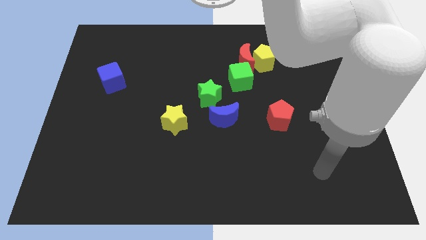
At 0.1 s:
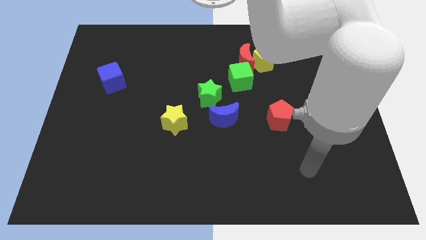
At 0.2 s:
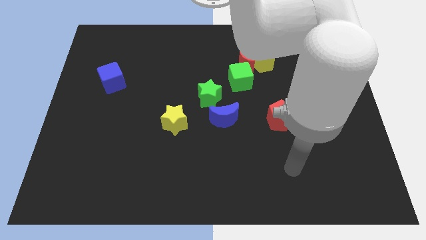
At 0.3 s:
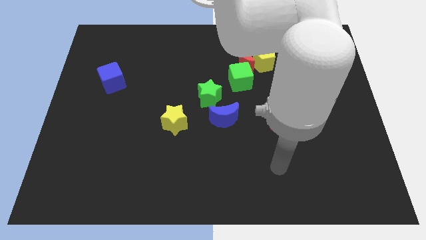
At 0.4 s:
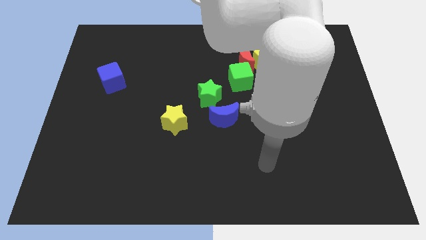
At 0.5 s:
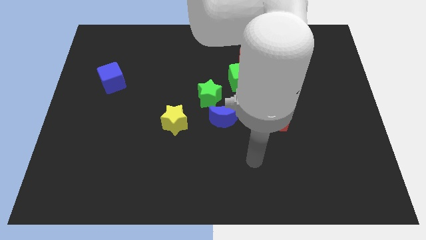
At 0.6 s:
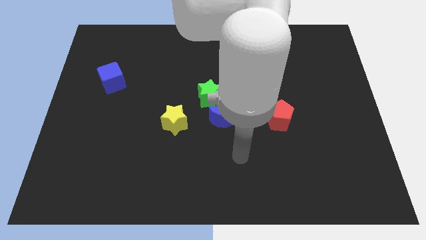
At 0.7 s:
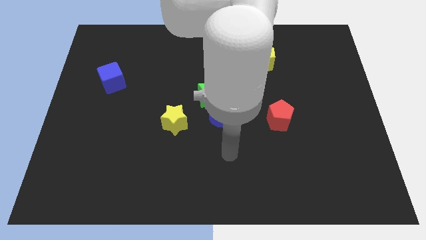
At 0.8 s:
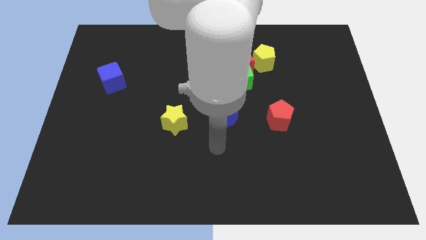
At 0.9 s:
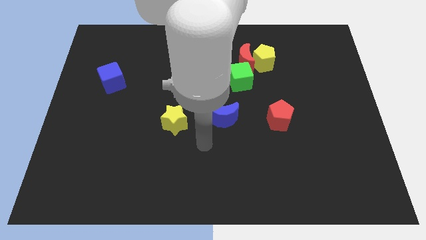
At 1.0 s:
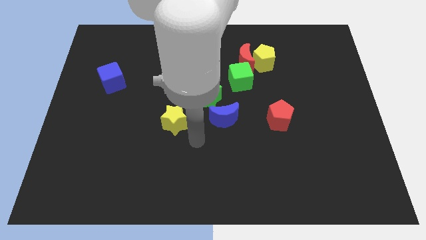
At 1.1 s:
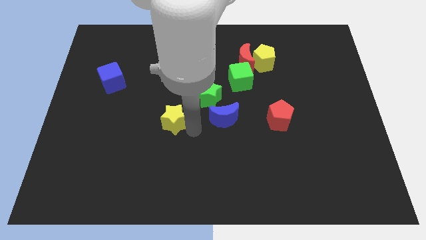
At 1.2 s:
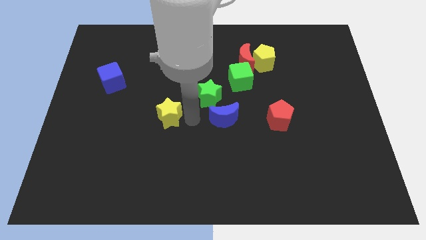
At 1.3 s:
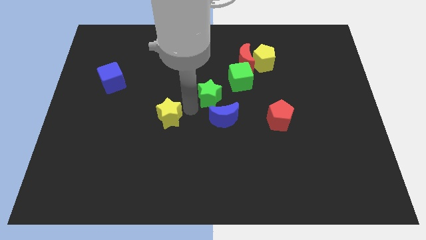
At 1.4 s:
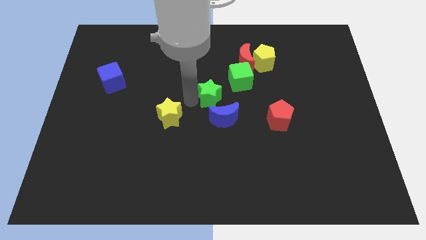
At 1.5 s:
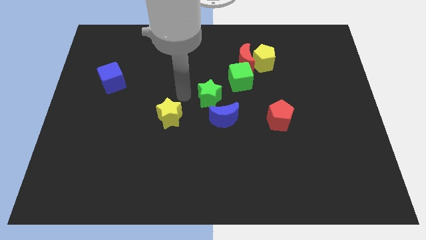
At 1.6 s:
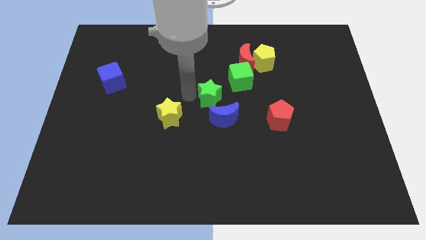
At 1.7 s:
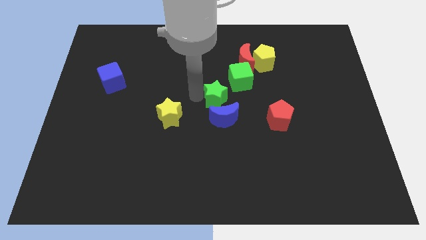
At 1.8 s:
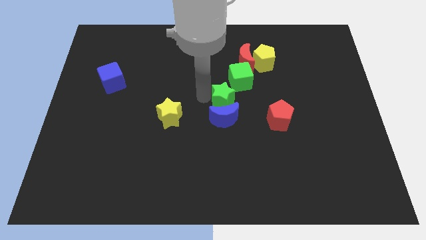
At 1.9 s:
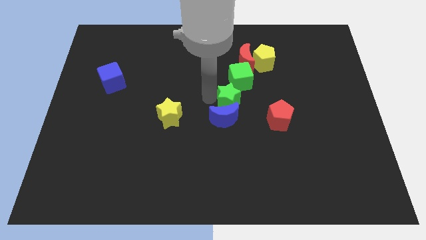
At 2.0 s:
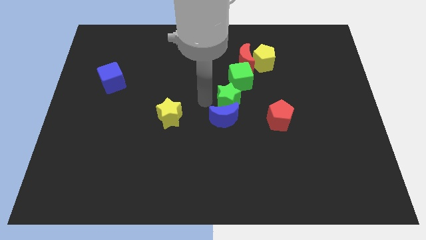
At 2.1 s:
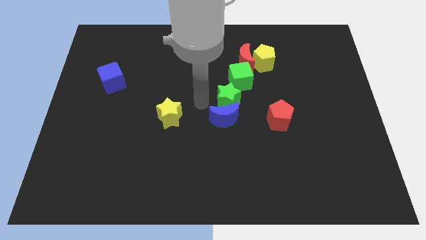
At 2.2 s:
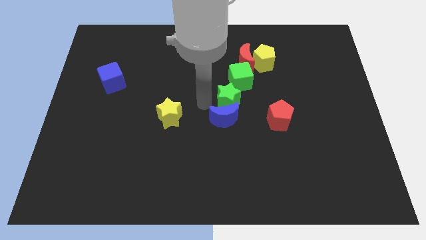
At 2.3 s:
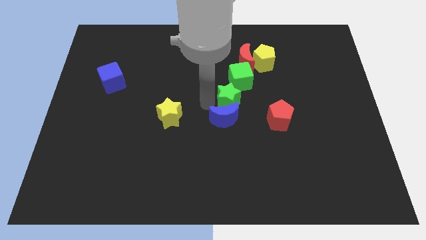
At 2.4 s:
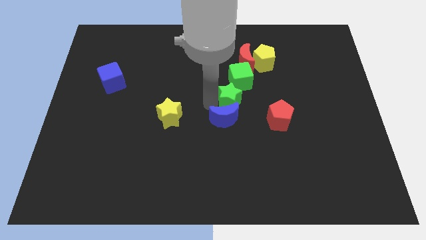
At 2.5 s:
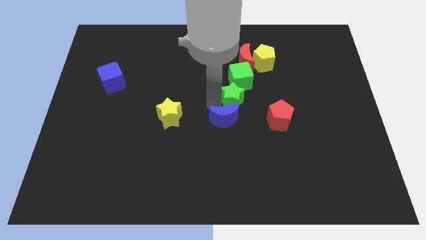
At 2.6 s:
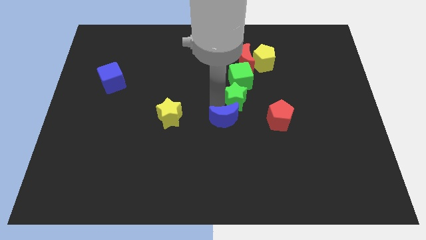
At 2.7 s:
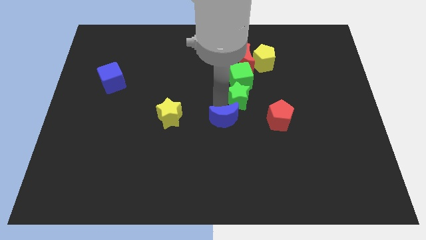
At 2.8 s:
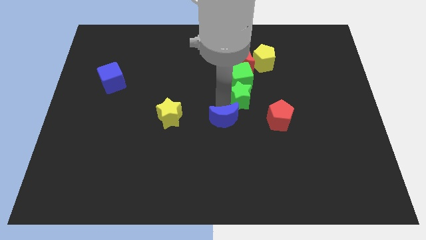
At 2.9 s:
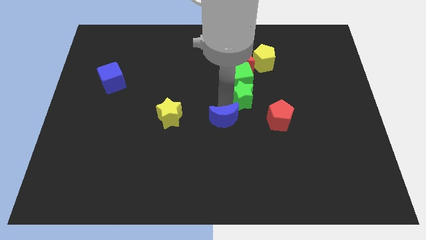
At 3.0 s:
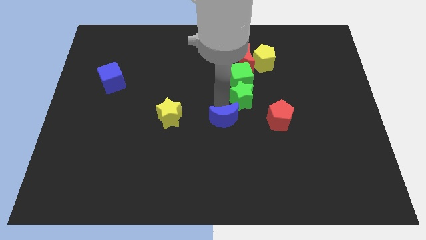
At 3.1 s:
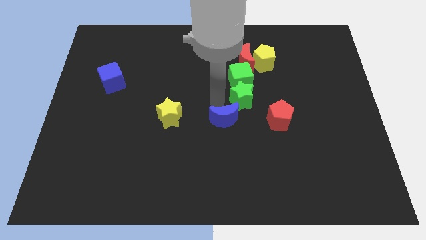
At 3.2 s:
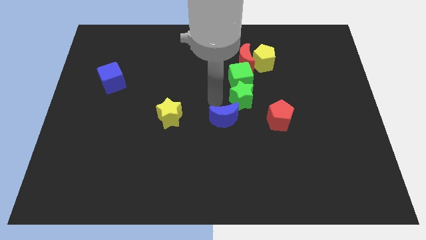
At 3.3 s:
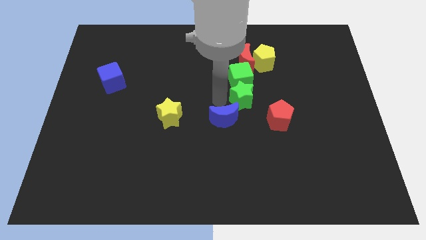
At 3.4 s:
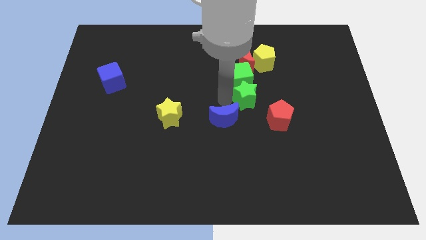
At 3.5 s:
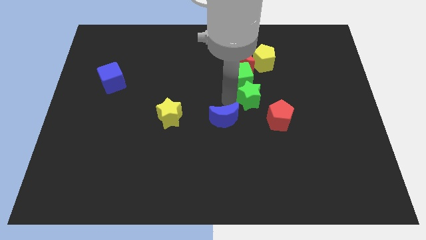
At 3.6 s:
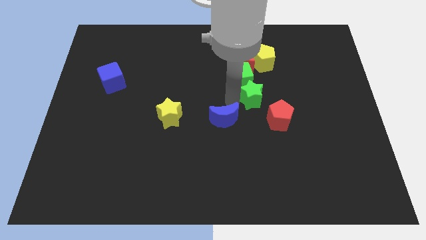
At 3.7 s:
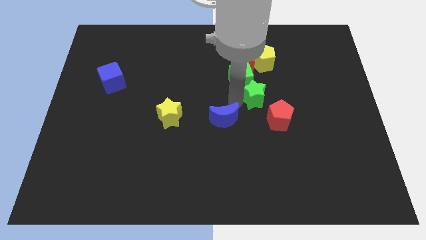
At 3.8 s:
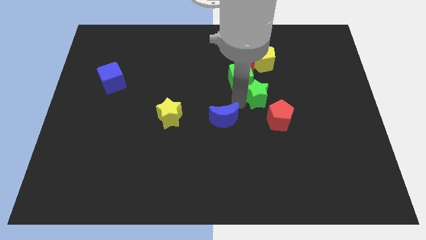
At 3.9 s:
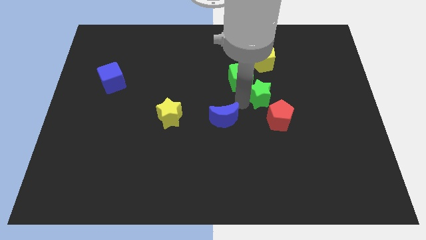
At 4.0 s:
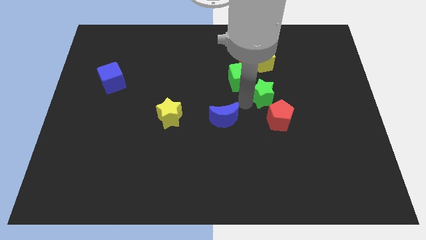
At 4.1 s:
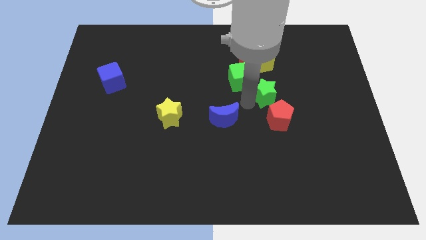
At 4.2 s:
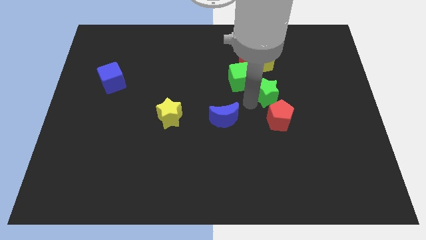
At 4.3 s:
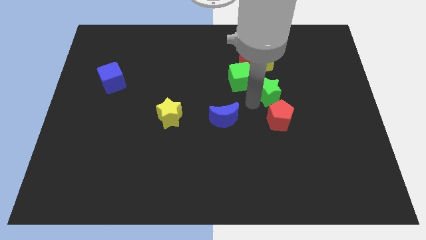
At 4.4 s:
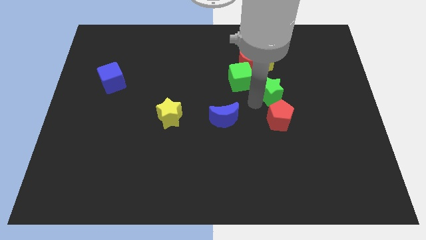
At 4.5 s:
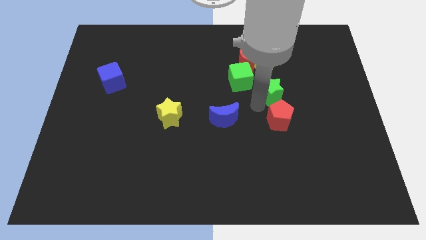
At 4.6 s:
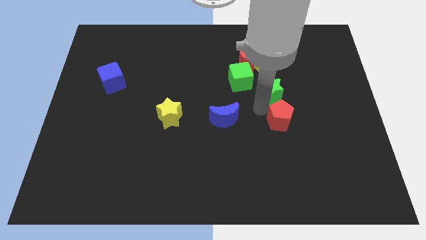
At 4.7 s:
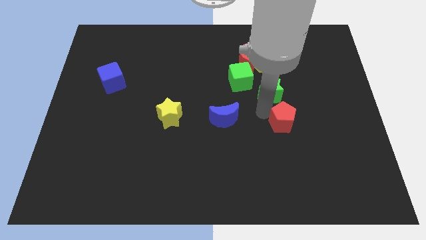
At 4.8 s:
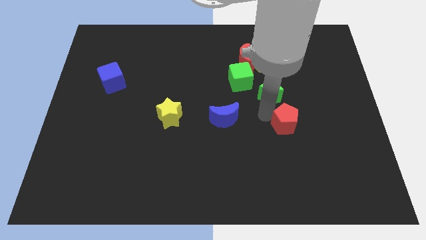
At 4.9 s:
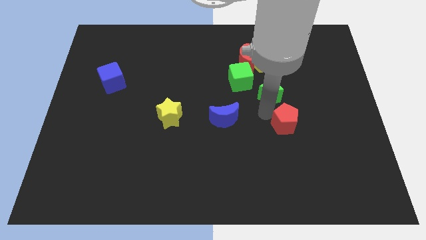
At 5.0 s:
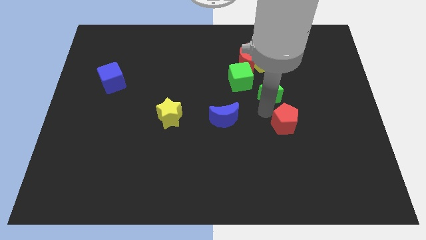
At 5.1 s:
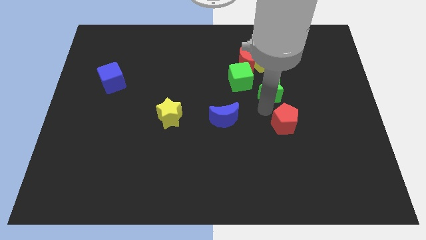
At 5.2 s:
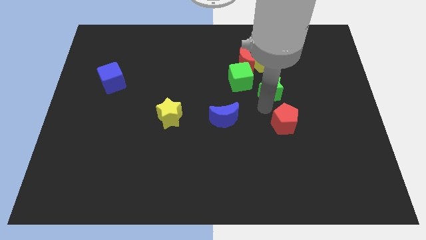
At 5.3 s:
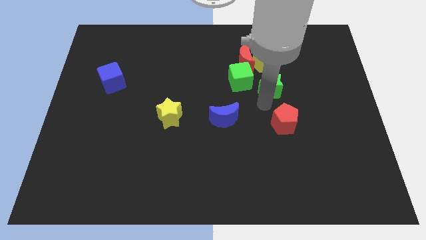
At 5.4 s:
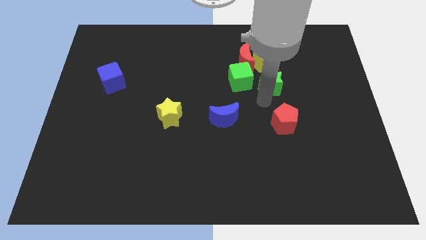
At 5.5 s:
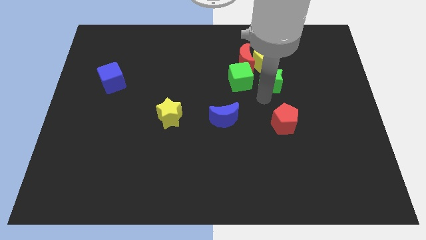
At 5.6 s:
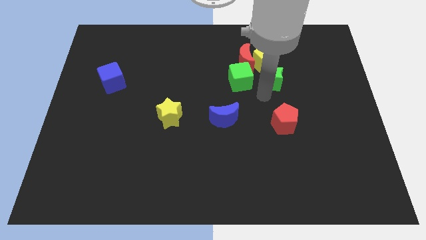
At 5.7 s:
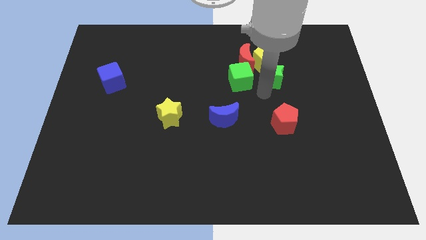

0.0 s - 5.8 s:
put the green star towards the yellow pentagon

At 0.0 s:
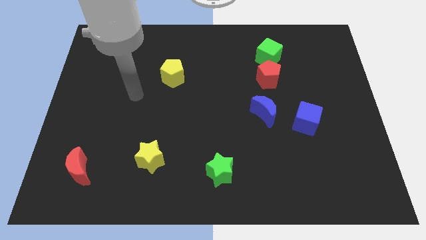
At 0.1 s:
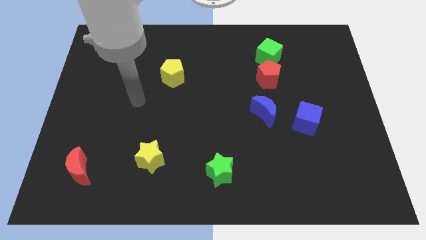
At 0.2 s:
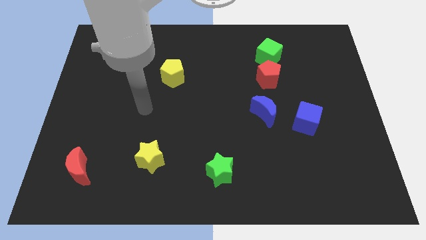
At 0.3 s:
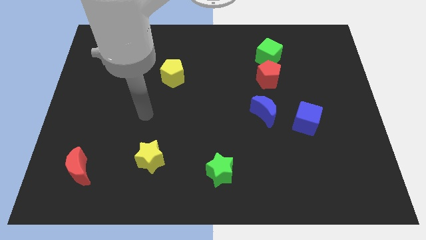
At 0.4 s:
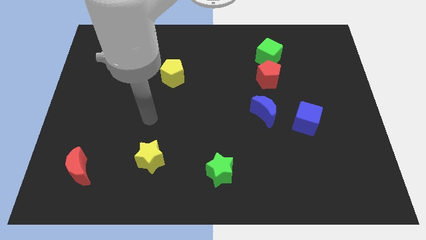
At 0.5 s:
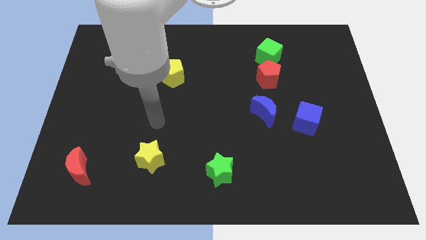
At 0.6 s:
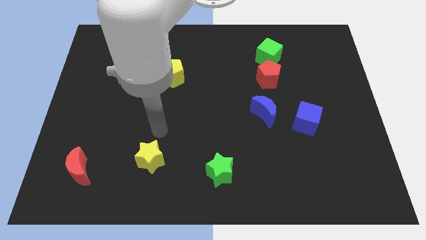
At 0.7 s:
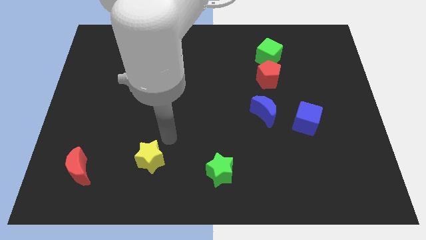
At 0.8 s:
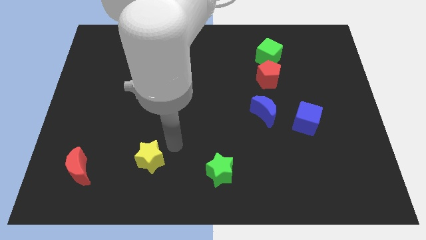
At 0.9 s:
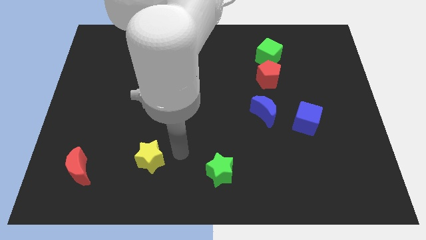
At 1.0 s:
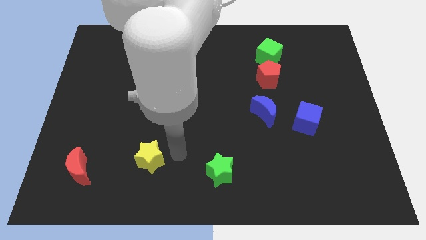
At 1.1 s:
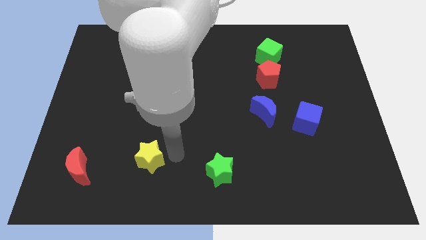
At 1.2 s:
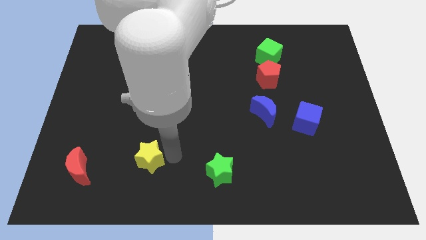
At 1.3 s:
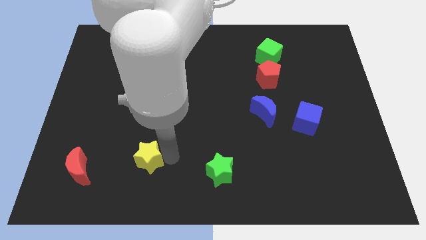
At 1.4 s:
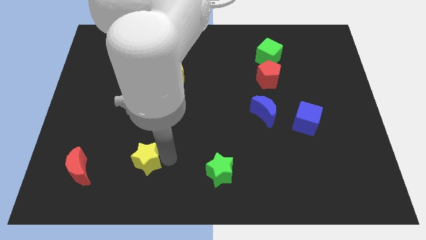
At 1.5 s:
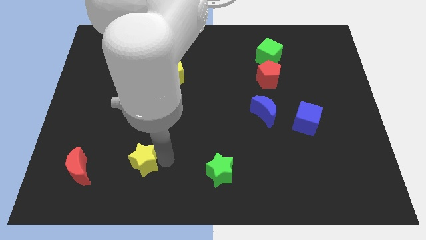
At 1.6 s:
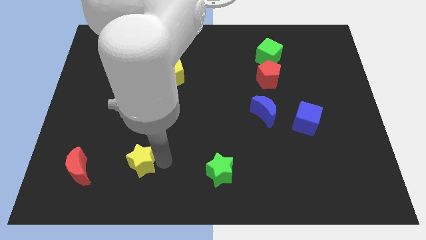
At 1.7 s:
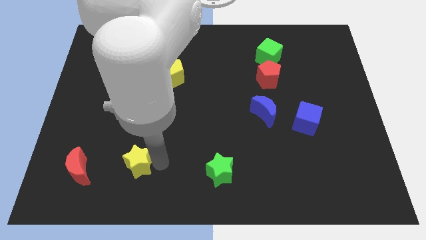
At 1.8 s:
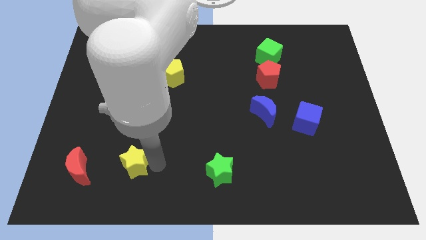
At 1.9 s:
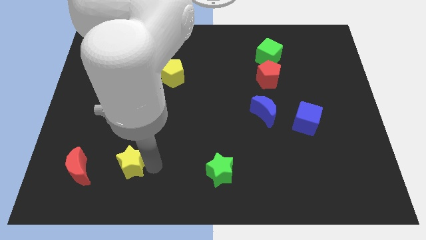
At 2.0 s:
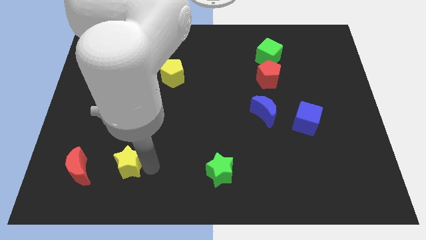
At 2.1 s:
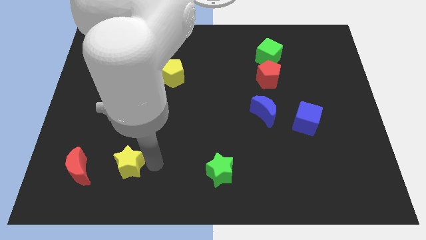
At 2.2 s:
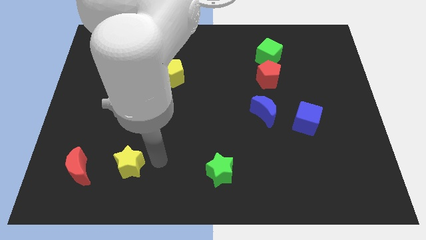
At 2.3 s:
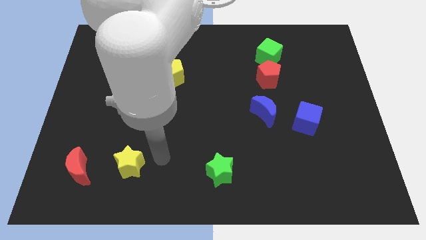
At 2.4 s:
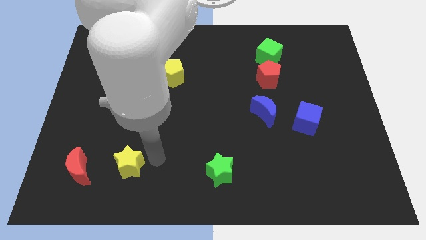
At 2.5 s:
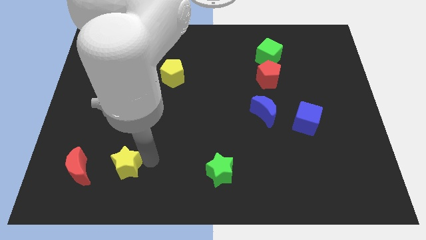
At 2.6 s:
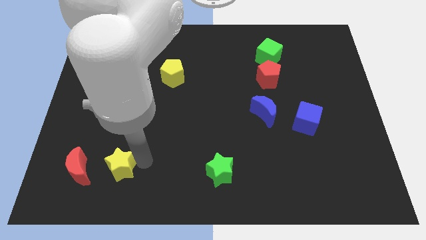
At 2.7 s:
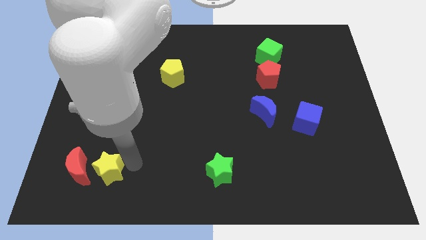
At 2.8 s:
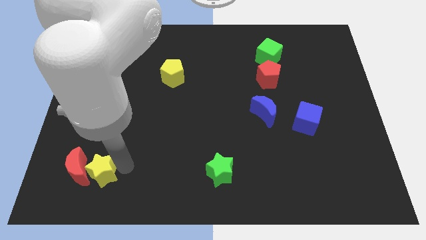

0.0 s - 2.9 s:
push the yellow star close to the red moon
